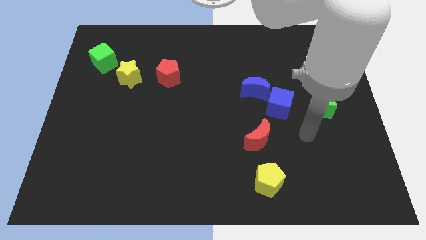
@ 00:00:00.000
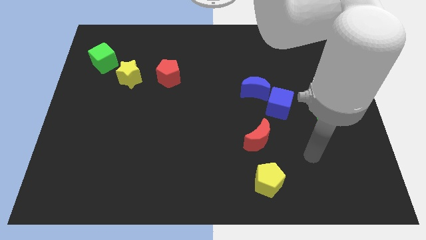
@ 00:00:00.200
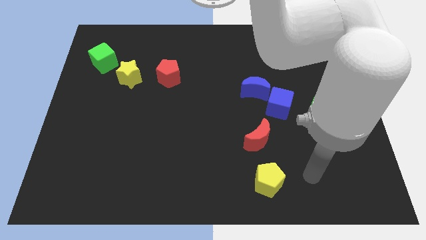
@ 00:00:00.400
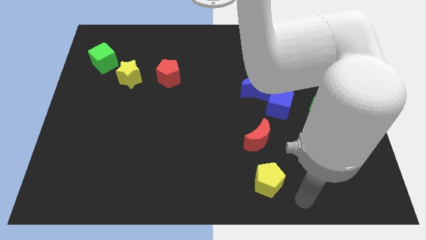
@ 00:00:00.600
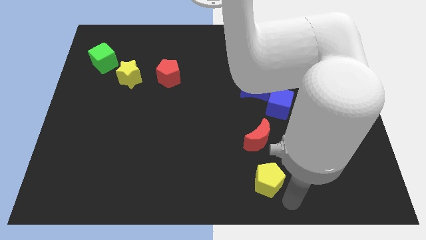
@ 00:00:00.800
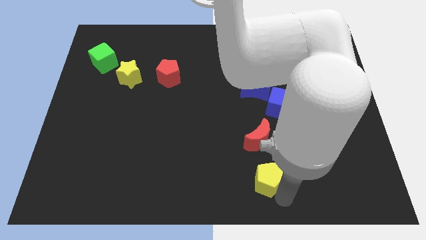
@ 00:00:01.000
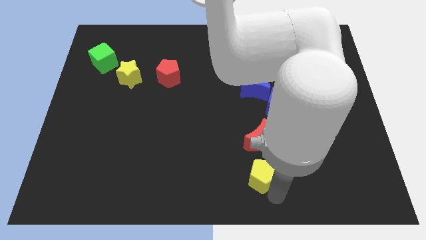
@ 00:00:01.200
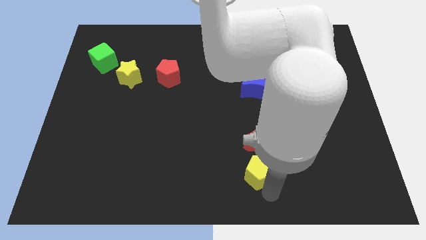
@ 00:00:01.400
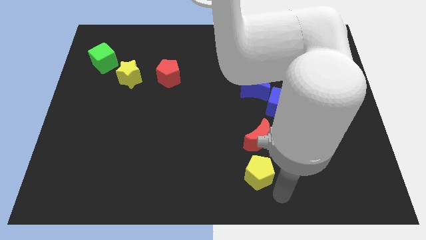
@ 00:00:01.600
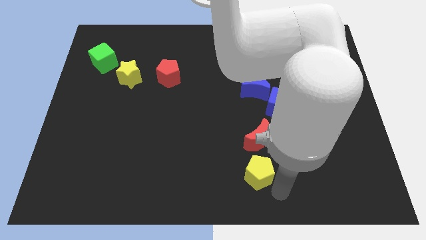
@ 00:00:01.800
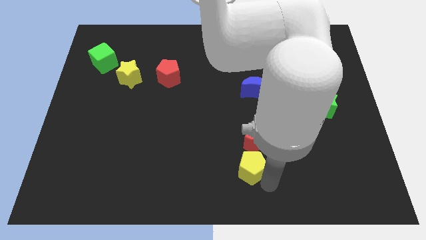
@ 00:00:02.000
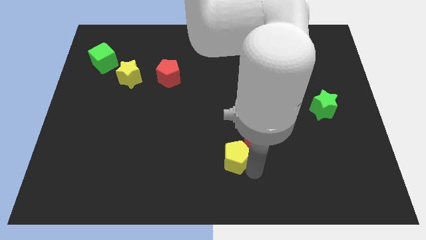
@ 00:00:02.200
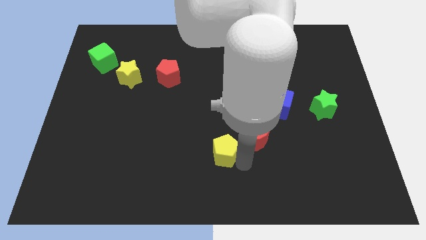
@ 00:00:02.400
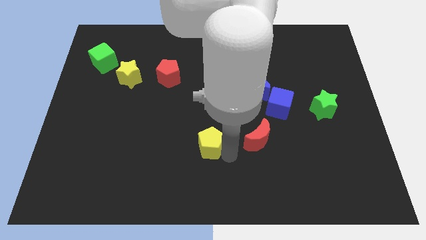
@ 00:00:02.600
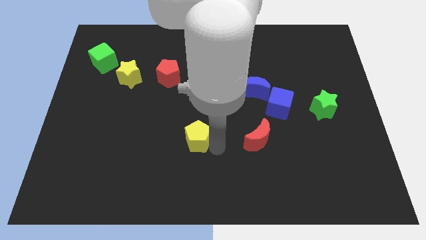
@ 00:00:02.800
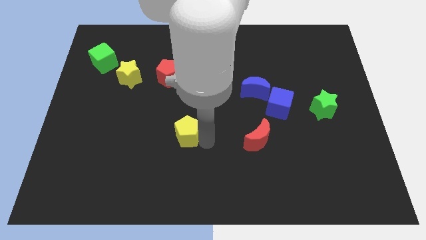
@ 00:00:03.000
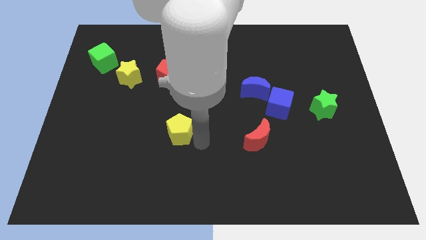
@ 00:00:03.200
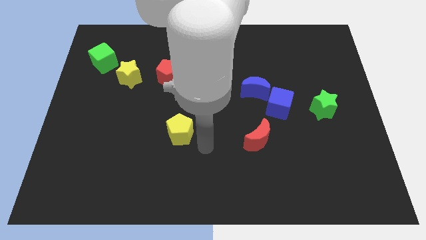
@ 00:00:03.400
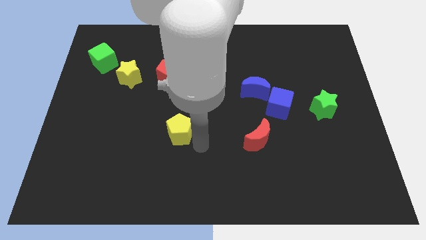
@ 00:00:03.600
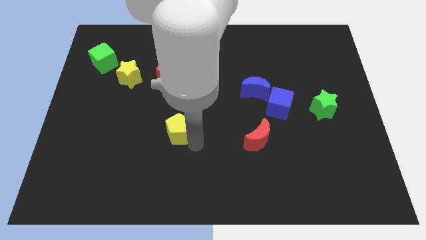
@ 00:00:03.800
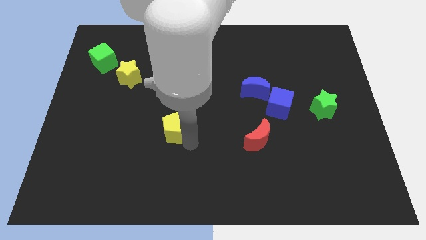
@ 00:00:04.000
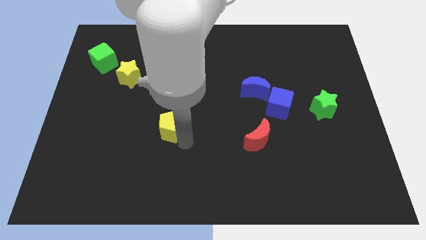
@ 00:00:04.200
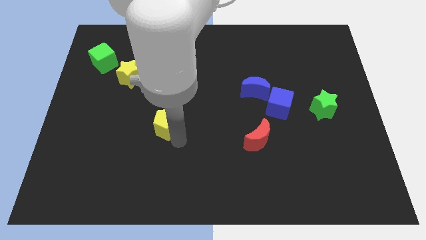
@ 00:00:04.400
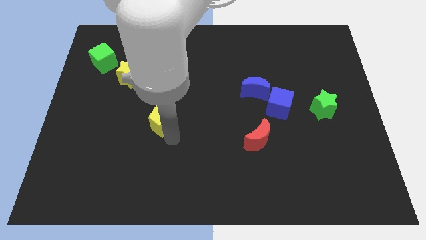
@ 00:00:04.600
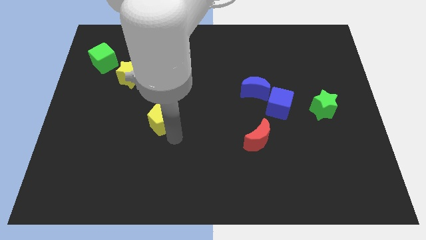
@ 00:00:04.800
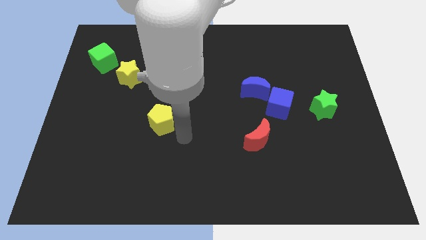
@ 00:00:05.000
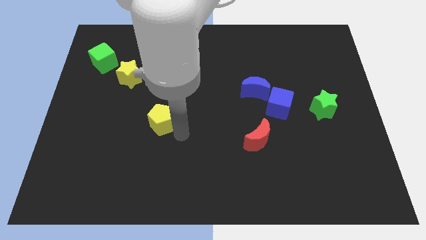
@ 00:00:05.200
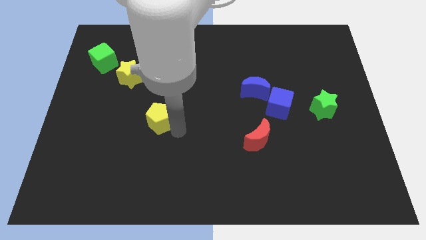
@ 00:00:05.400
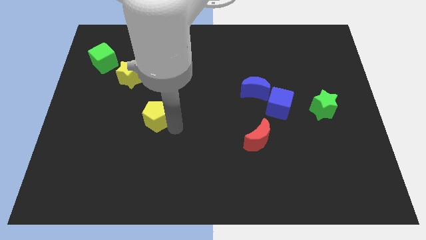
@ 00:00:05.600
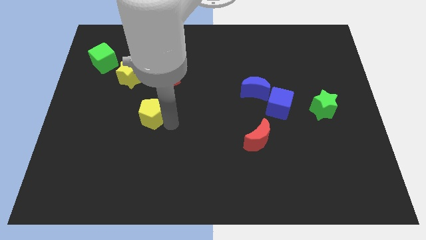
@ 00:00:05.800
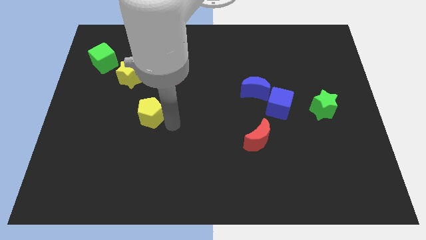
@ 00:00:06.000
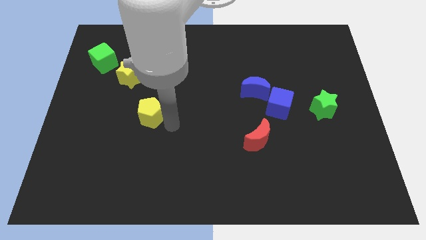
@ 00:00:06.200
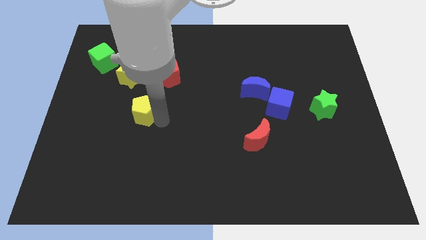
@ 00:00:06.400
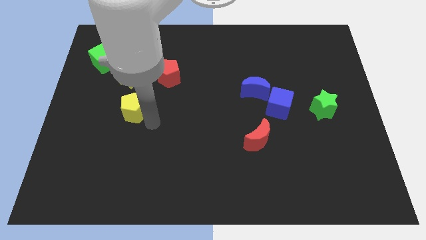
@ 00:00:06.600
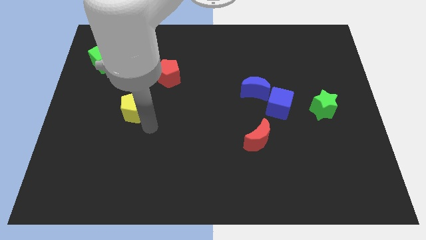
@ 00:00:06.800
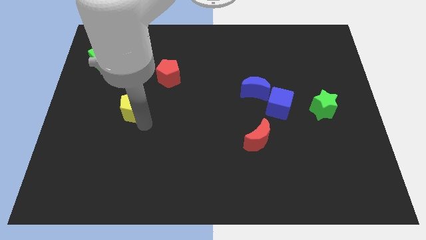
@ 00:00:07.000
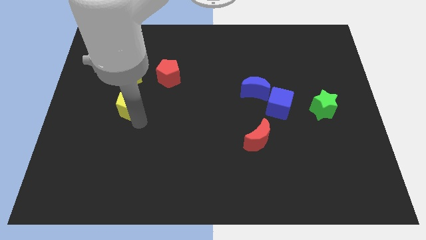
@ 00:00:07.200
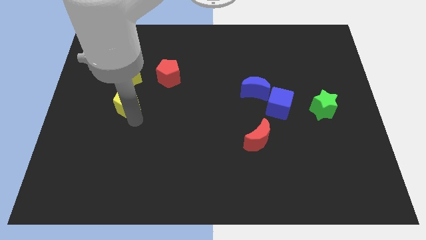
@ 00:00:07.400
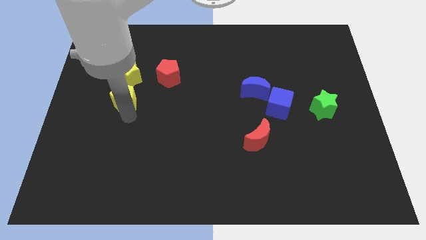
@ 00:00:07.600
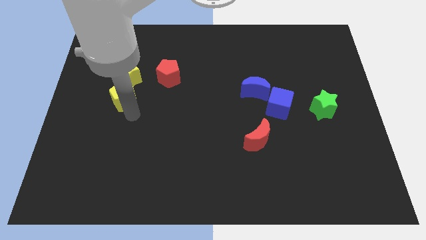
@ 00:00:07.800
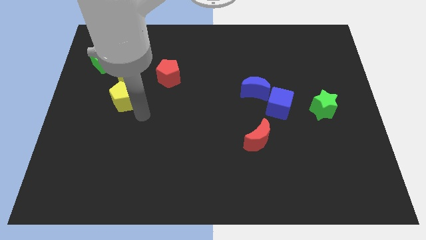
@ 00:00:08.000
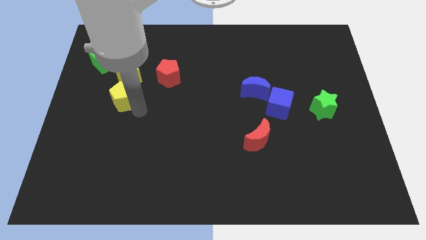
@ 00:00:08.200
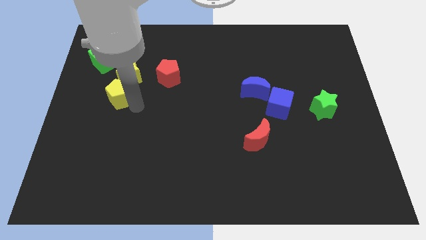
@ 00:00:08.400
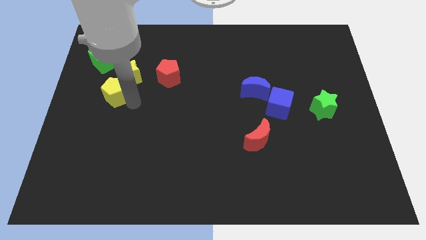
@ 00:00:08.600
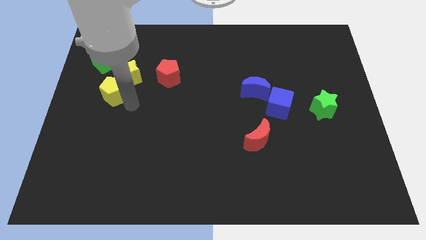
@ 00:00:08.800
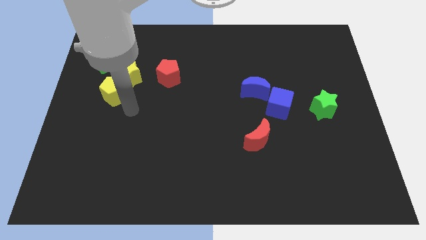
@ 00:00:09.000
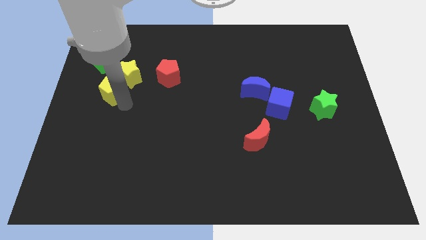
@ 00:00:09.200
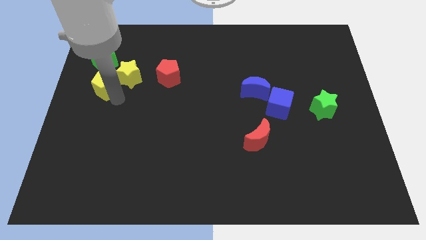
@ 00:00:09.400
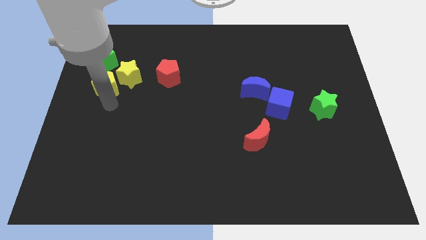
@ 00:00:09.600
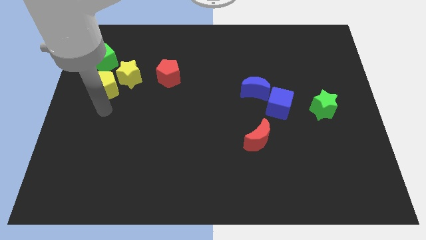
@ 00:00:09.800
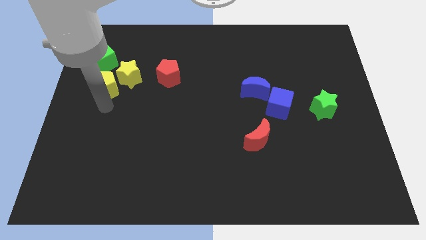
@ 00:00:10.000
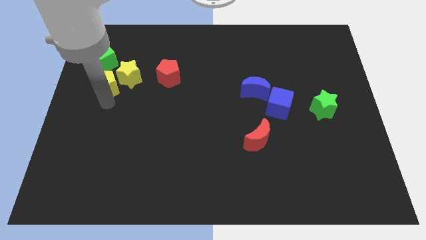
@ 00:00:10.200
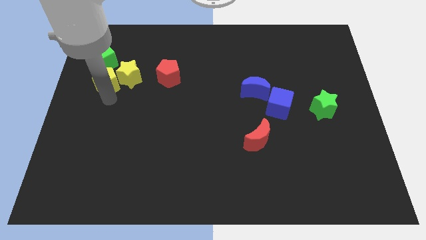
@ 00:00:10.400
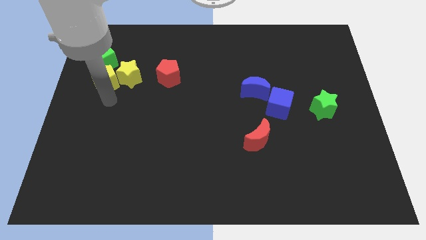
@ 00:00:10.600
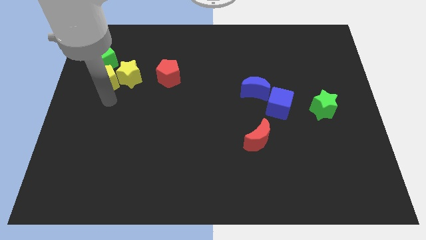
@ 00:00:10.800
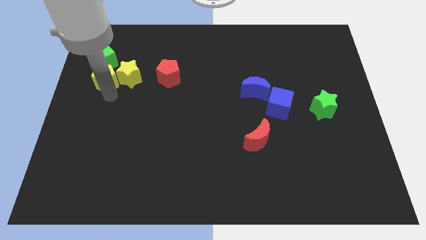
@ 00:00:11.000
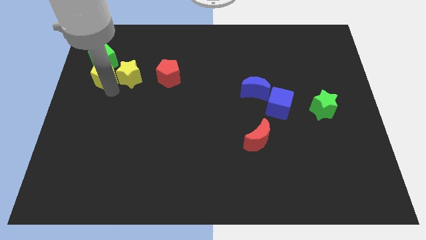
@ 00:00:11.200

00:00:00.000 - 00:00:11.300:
push the yellow pentagon close to the green cube

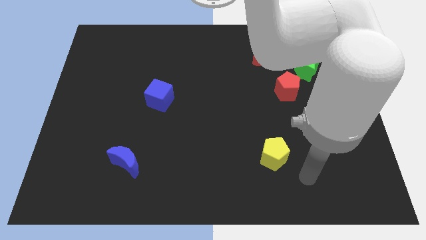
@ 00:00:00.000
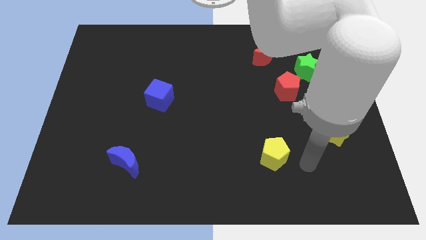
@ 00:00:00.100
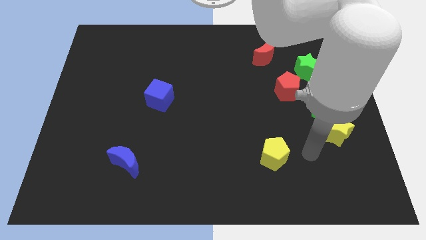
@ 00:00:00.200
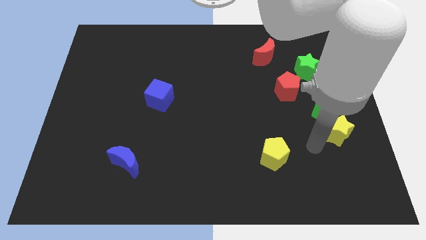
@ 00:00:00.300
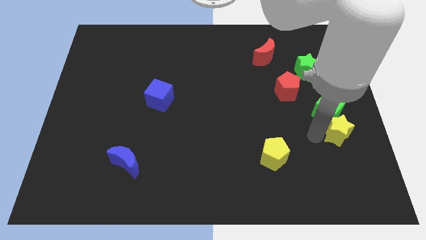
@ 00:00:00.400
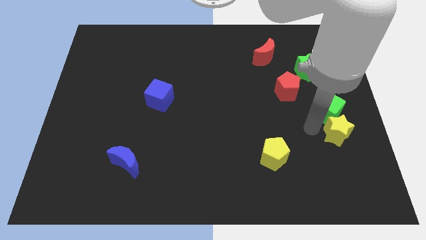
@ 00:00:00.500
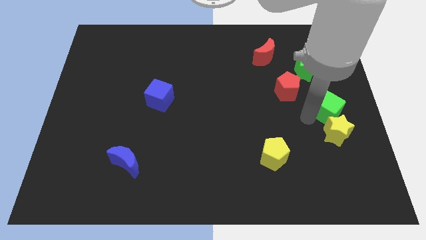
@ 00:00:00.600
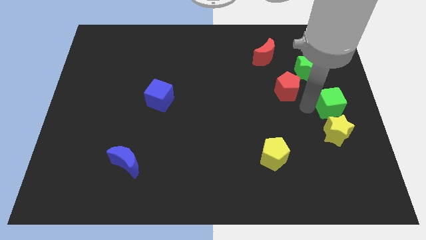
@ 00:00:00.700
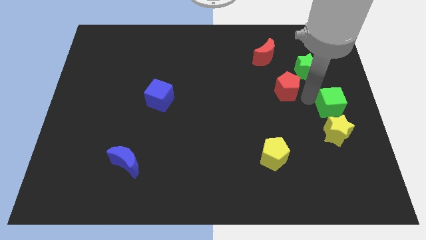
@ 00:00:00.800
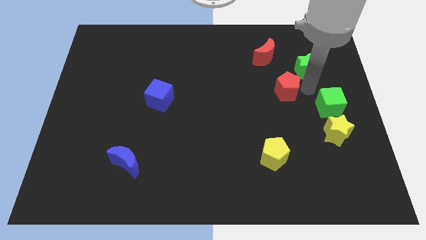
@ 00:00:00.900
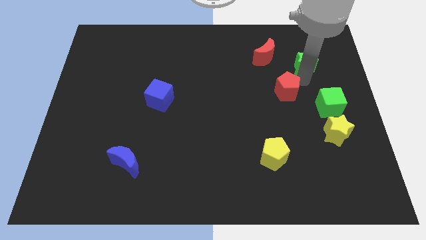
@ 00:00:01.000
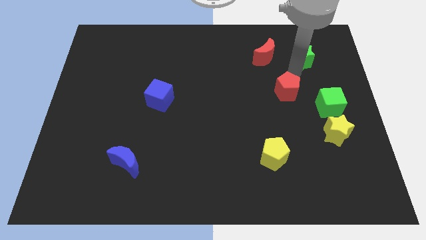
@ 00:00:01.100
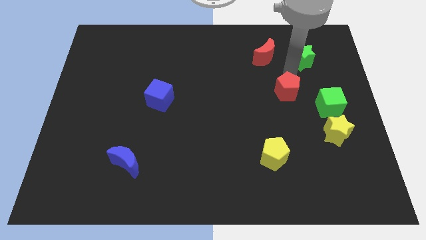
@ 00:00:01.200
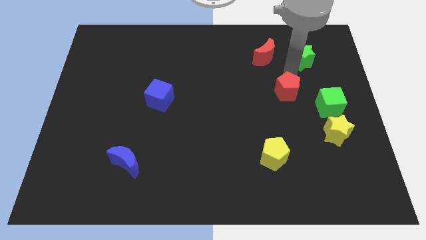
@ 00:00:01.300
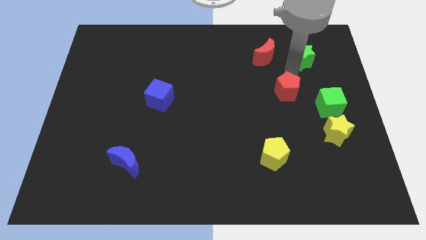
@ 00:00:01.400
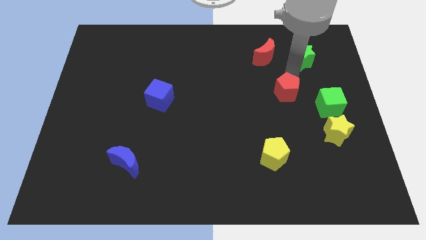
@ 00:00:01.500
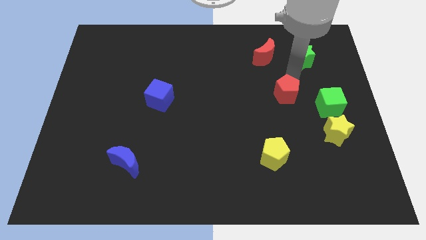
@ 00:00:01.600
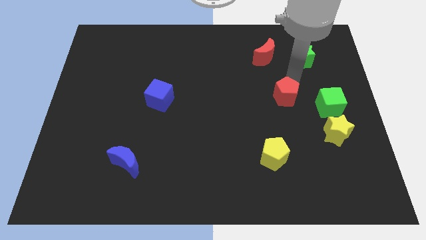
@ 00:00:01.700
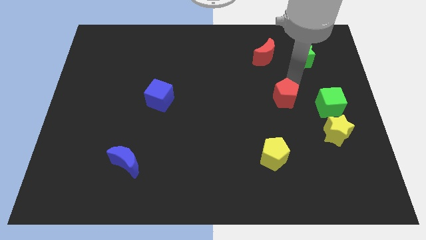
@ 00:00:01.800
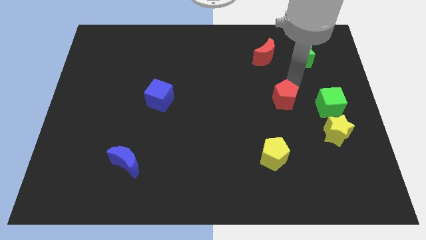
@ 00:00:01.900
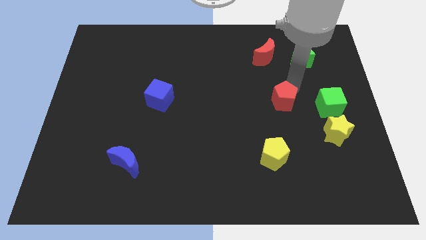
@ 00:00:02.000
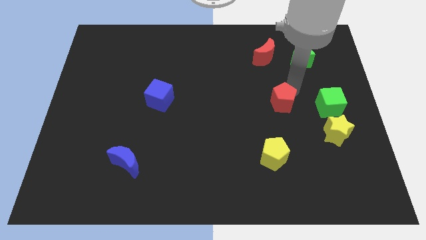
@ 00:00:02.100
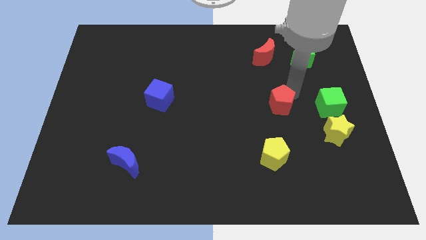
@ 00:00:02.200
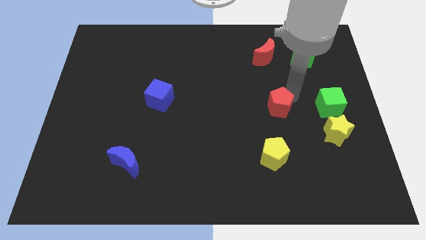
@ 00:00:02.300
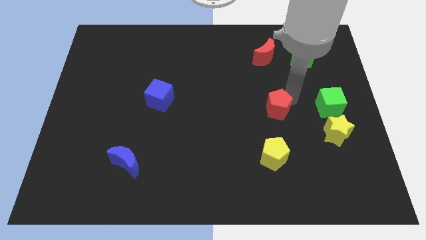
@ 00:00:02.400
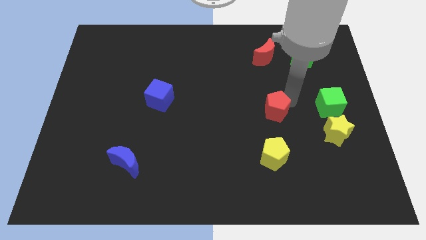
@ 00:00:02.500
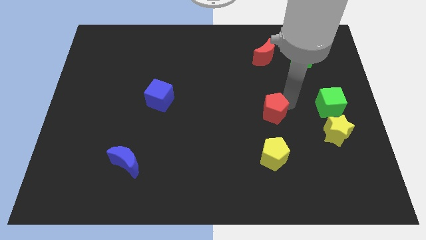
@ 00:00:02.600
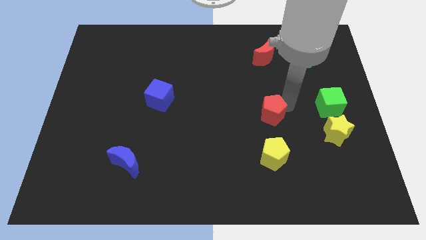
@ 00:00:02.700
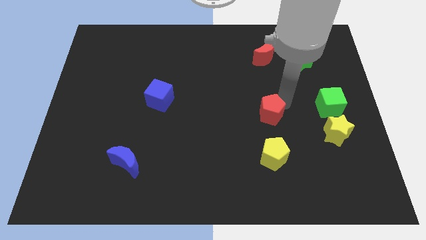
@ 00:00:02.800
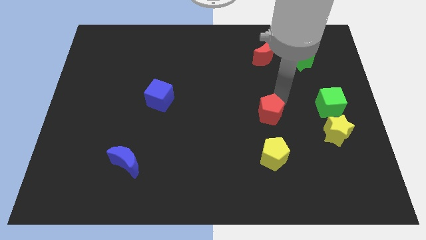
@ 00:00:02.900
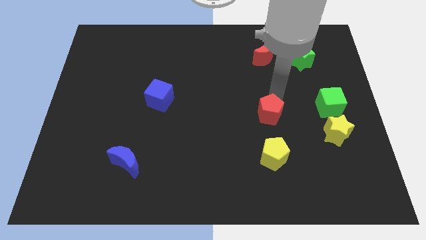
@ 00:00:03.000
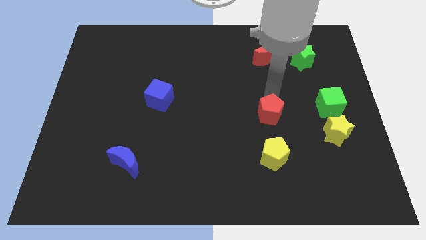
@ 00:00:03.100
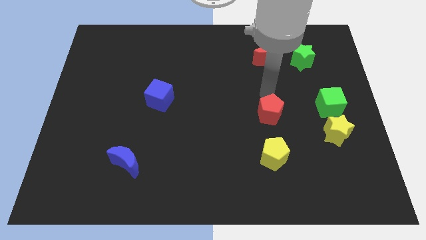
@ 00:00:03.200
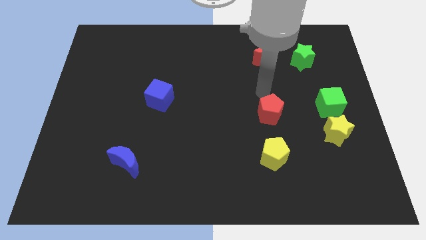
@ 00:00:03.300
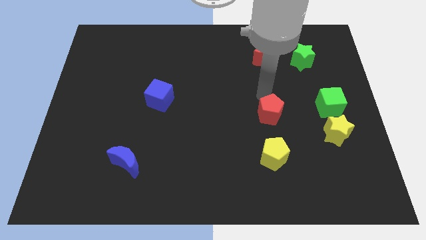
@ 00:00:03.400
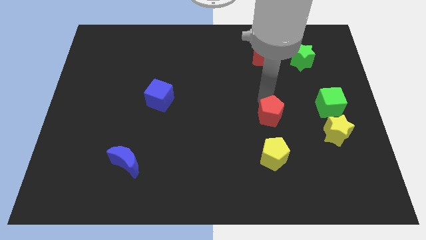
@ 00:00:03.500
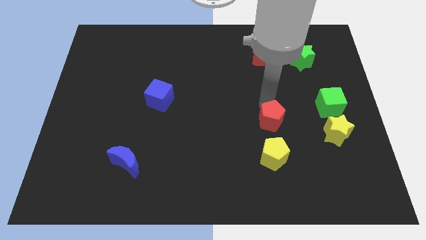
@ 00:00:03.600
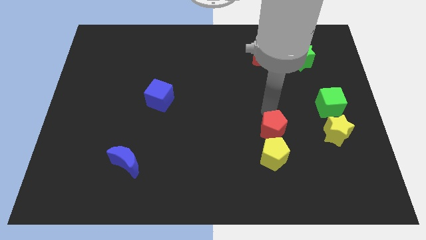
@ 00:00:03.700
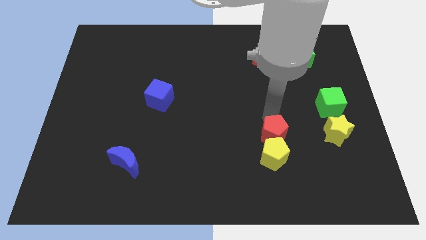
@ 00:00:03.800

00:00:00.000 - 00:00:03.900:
move the red pentagon to the yellow pentagon
